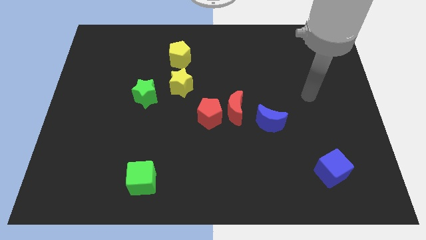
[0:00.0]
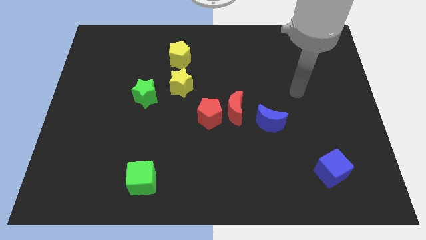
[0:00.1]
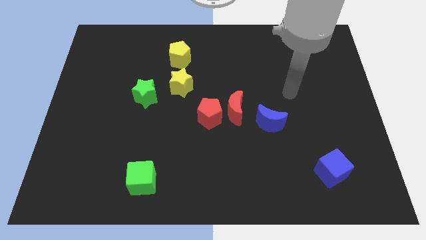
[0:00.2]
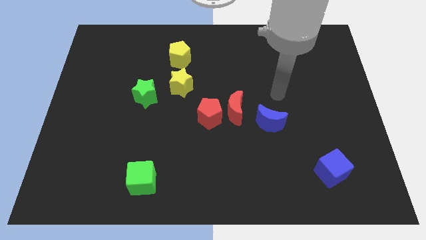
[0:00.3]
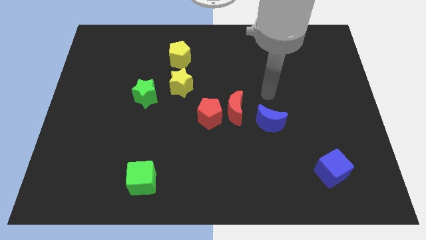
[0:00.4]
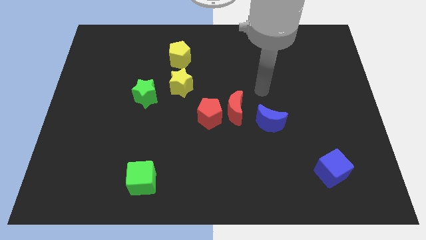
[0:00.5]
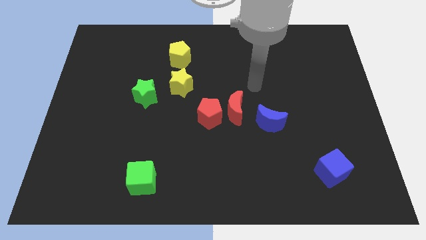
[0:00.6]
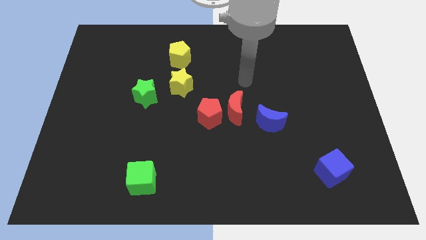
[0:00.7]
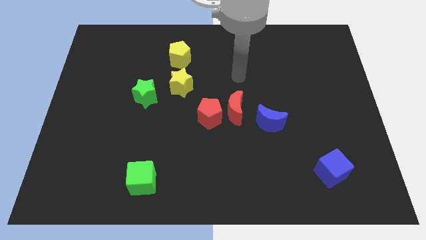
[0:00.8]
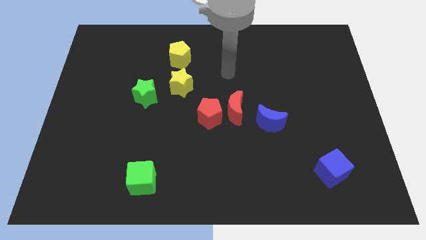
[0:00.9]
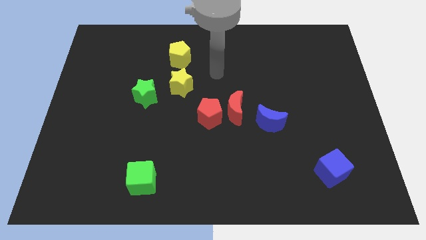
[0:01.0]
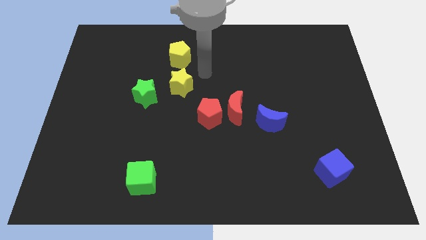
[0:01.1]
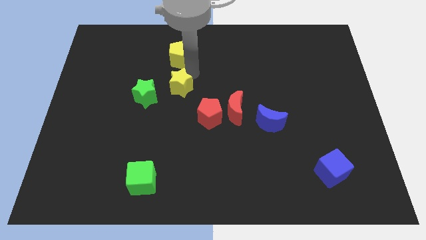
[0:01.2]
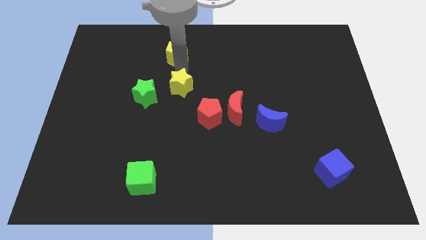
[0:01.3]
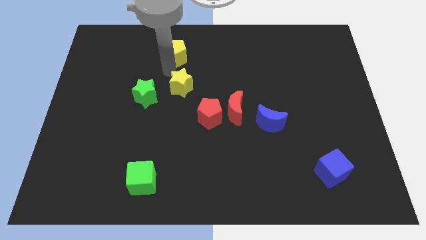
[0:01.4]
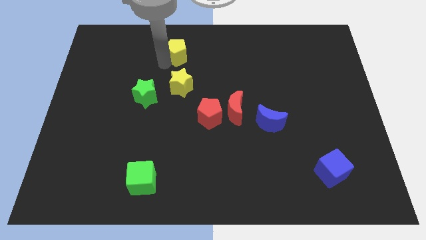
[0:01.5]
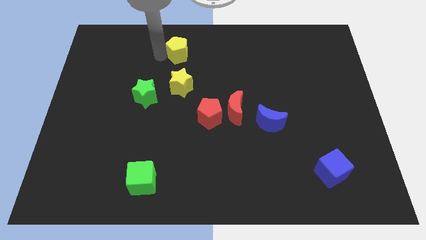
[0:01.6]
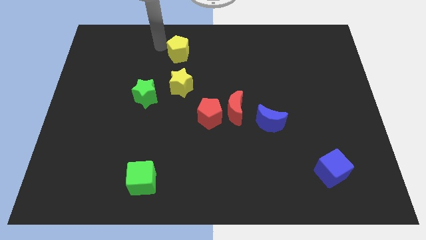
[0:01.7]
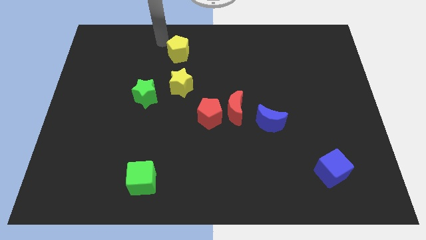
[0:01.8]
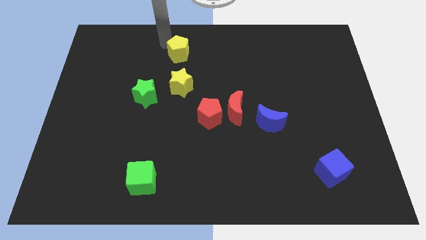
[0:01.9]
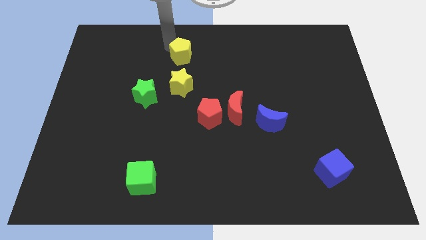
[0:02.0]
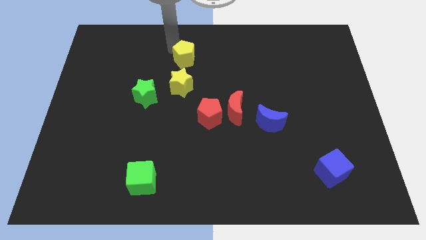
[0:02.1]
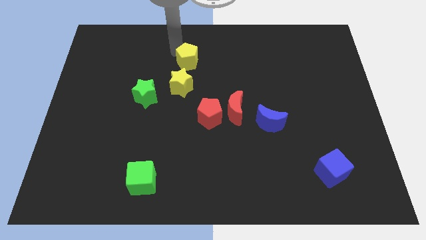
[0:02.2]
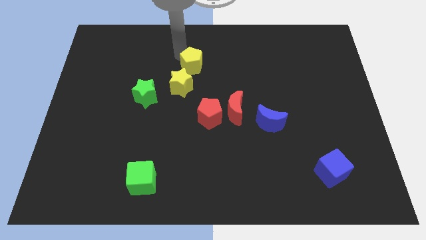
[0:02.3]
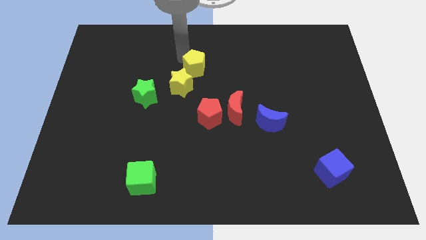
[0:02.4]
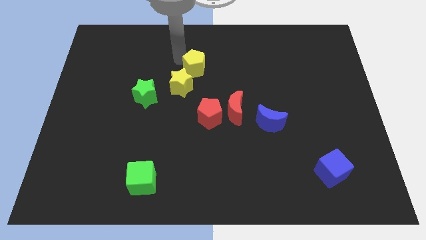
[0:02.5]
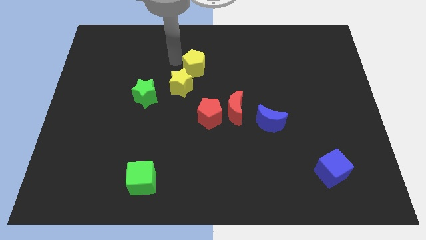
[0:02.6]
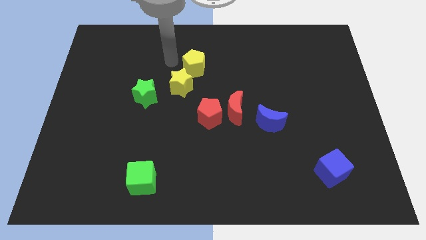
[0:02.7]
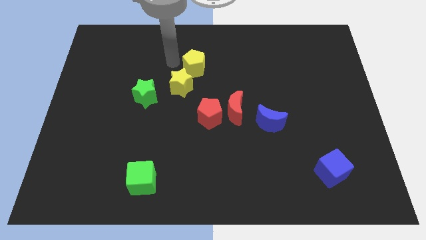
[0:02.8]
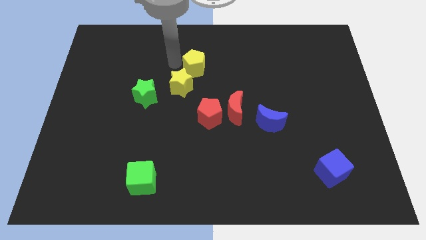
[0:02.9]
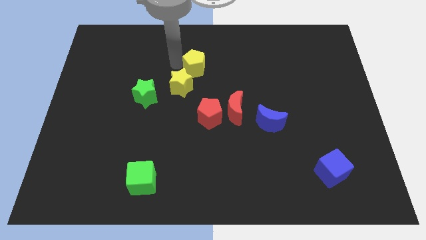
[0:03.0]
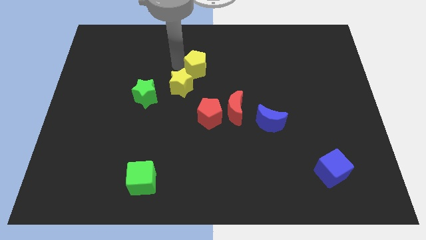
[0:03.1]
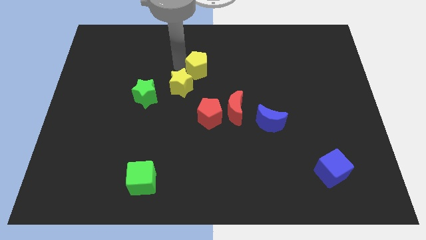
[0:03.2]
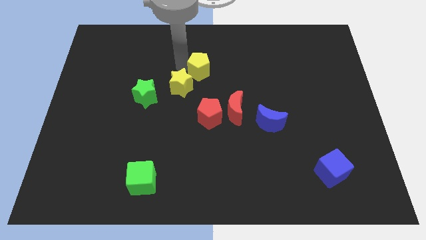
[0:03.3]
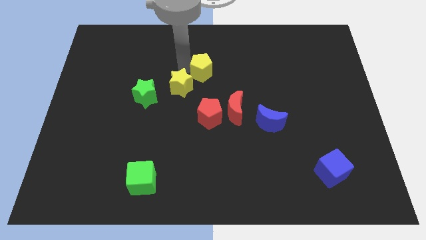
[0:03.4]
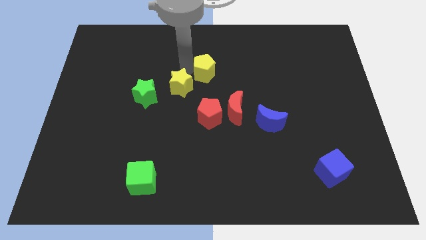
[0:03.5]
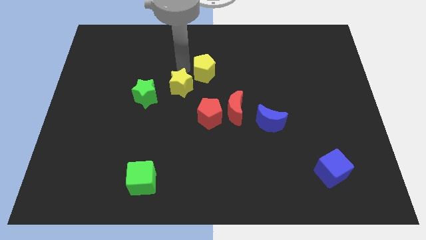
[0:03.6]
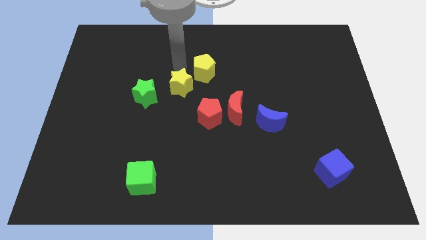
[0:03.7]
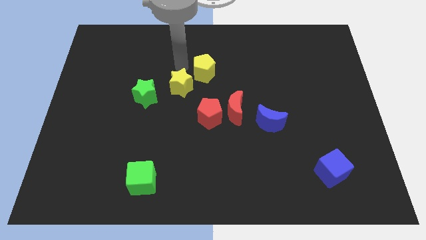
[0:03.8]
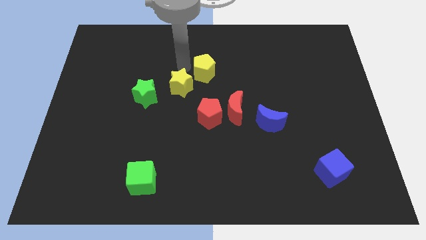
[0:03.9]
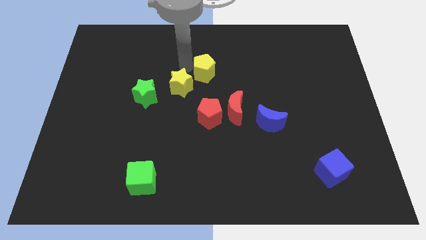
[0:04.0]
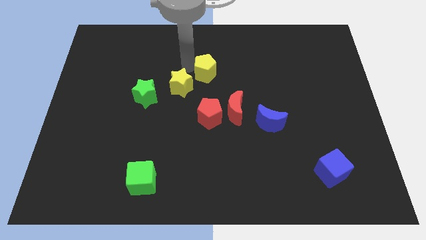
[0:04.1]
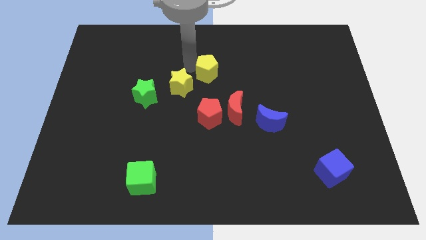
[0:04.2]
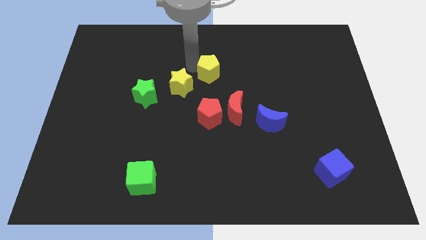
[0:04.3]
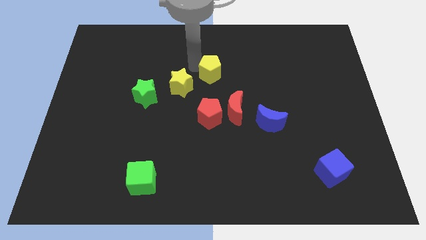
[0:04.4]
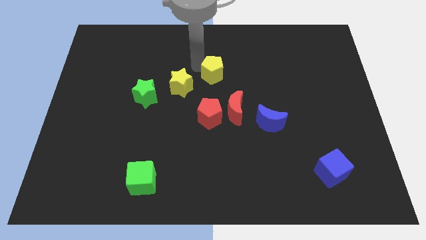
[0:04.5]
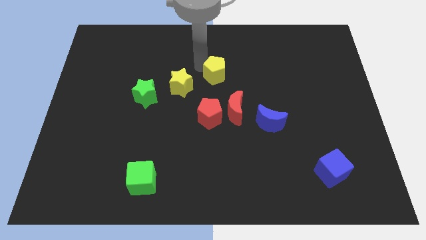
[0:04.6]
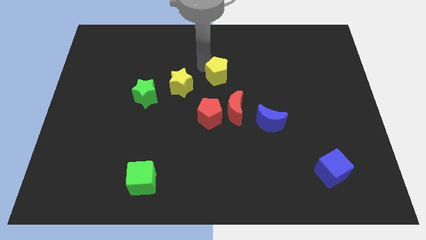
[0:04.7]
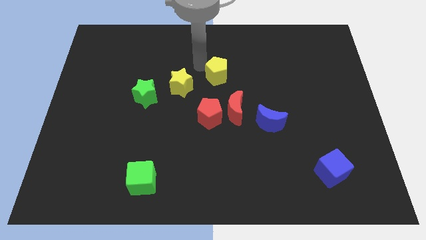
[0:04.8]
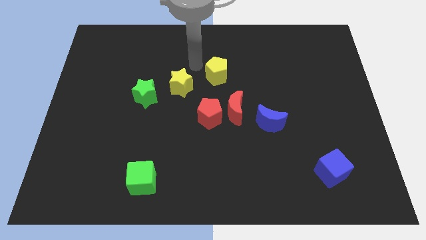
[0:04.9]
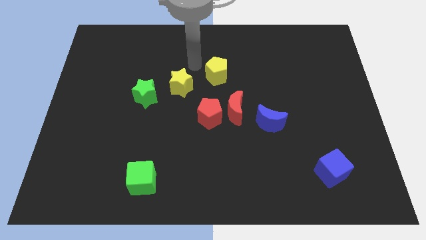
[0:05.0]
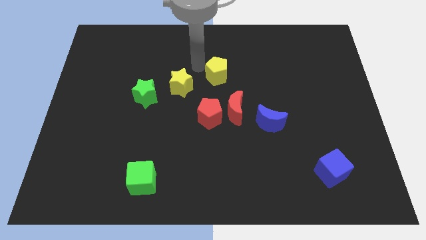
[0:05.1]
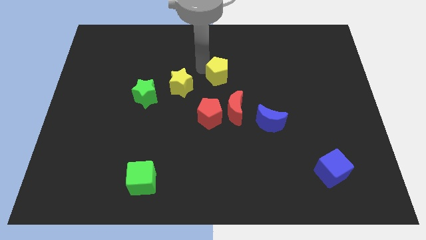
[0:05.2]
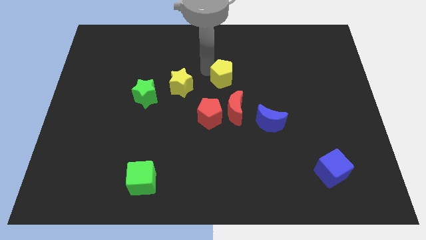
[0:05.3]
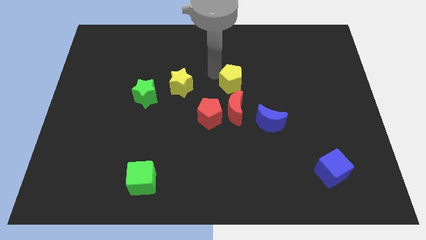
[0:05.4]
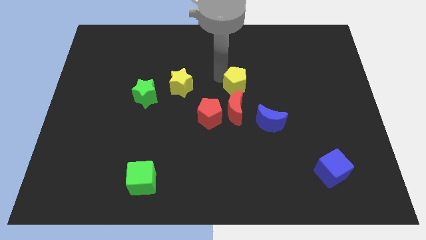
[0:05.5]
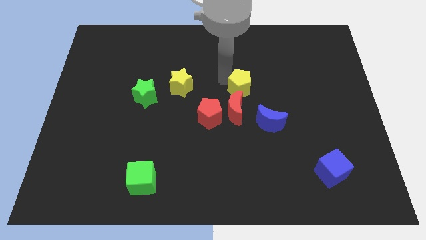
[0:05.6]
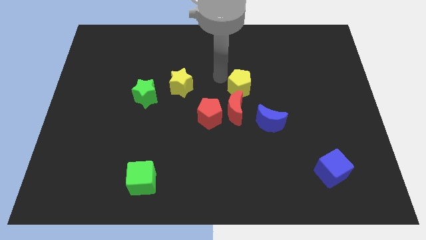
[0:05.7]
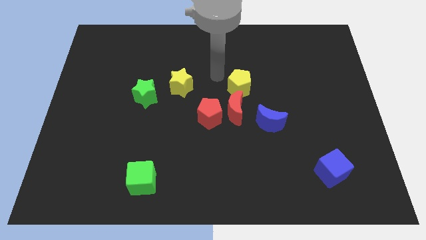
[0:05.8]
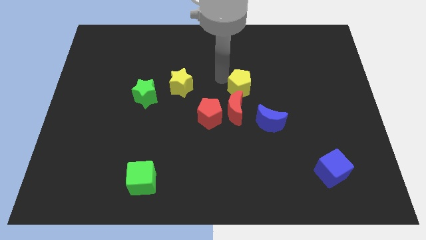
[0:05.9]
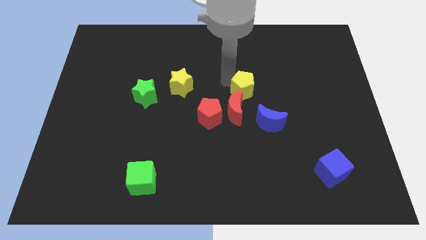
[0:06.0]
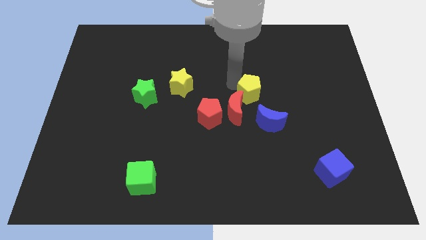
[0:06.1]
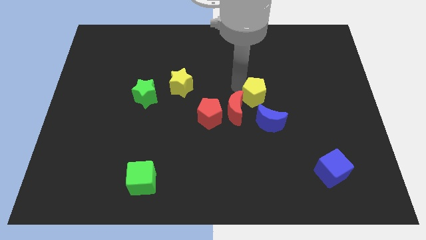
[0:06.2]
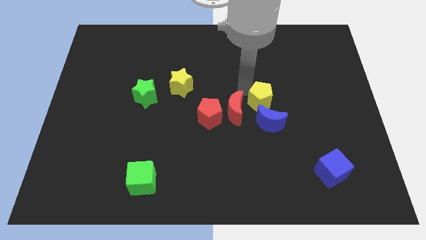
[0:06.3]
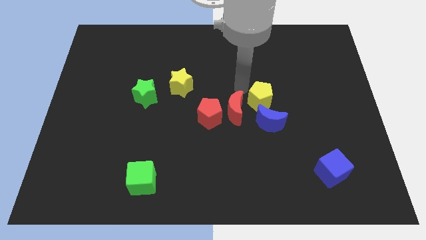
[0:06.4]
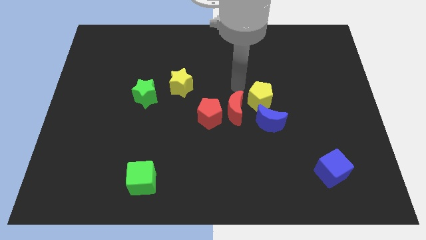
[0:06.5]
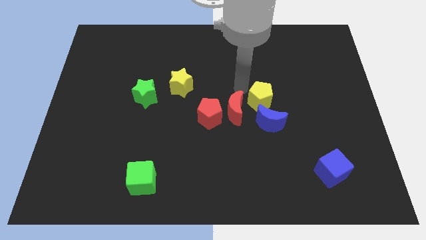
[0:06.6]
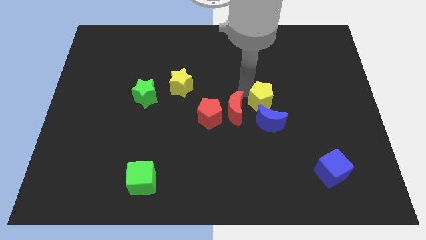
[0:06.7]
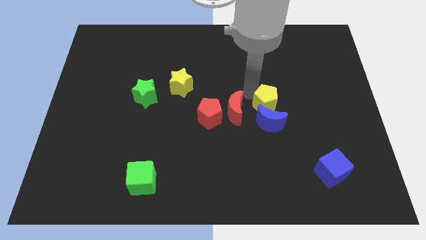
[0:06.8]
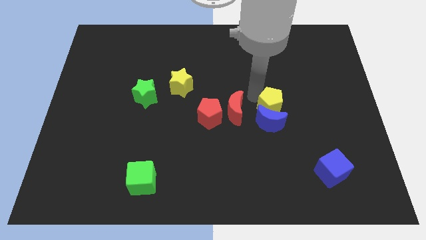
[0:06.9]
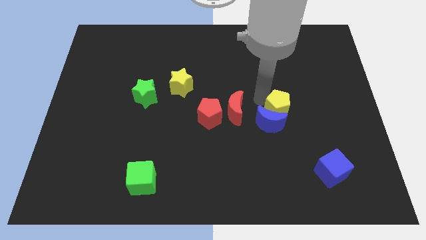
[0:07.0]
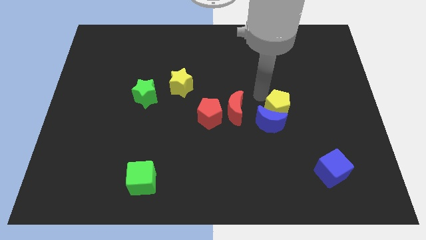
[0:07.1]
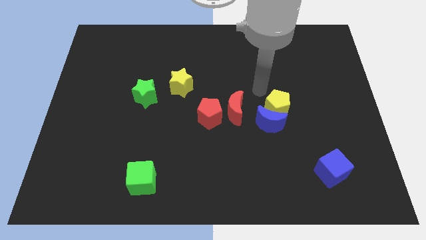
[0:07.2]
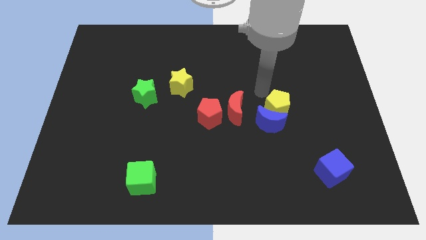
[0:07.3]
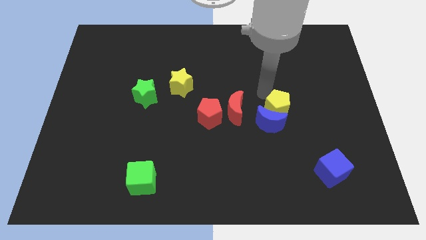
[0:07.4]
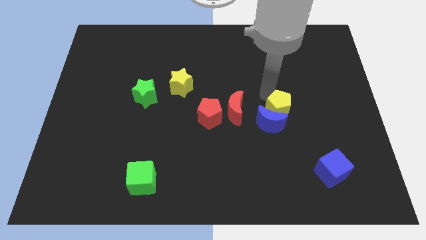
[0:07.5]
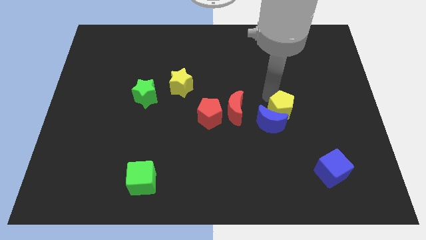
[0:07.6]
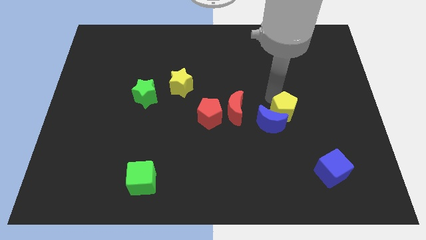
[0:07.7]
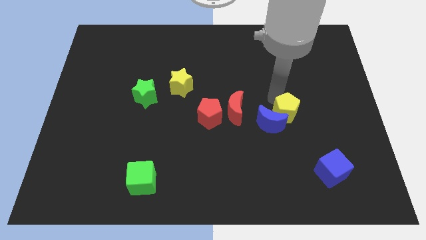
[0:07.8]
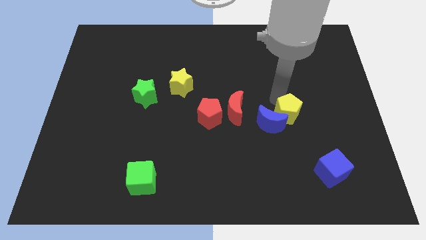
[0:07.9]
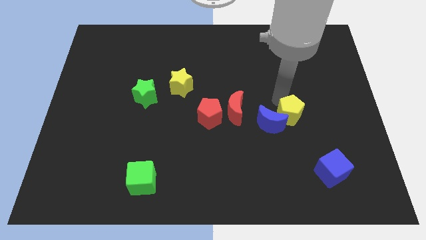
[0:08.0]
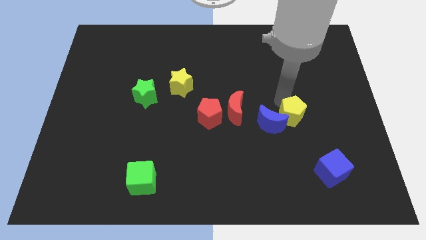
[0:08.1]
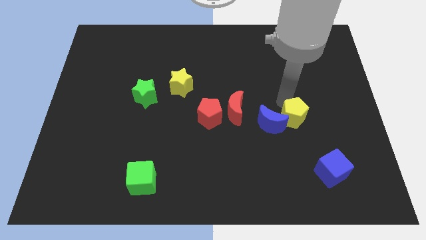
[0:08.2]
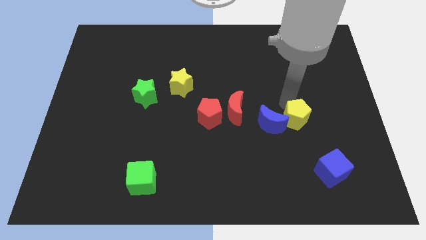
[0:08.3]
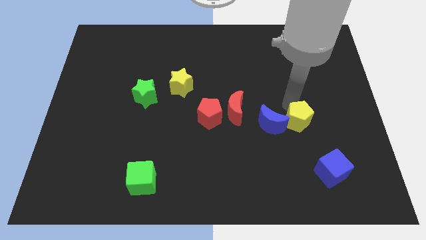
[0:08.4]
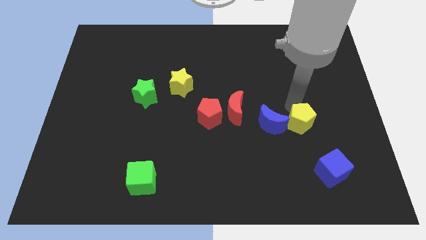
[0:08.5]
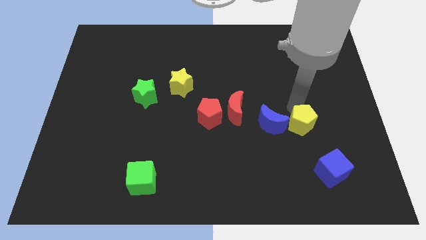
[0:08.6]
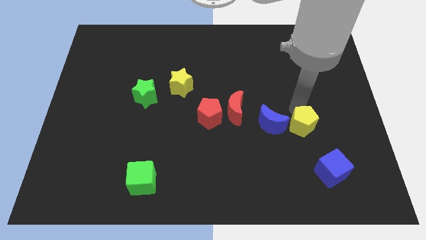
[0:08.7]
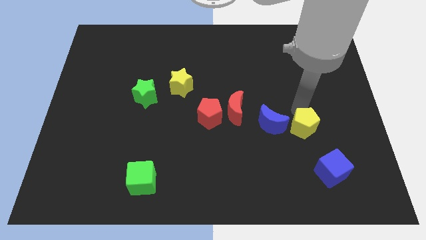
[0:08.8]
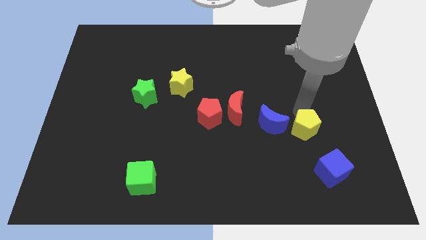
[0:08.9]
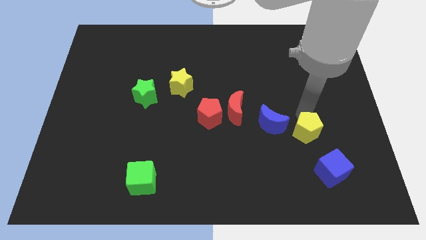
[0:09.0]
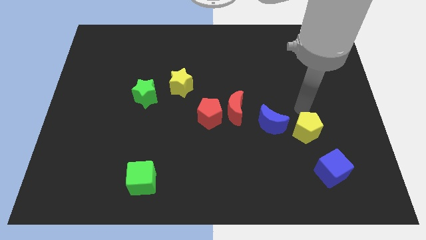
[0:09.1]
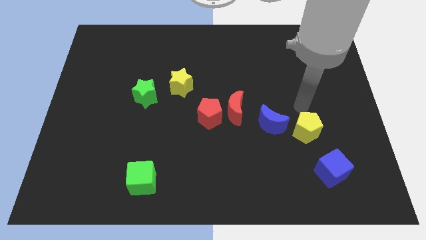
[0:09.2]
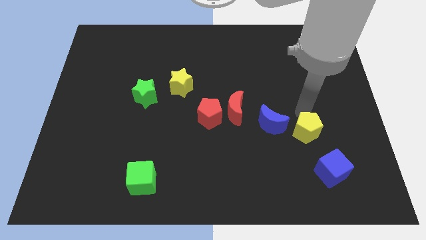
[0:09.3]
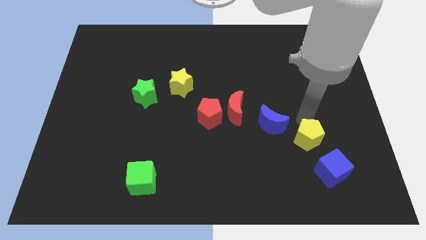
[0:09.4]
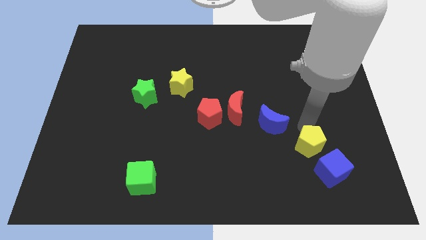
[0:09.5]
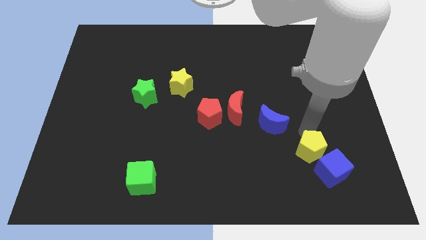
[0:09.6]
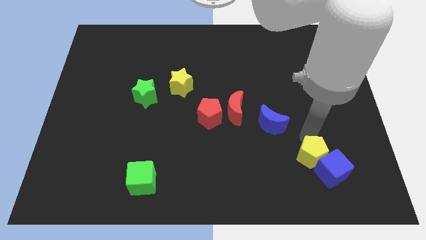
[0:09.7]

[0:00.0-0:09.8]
move the yellow pentagon close to the blue cube
